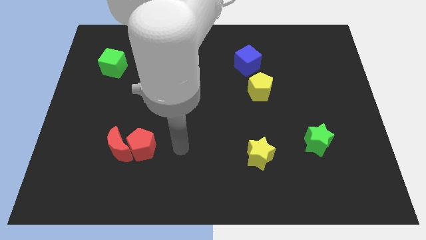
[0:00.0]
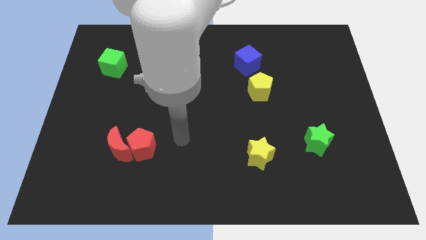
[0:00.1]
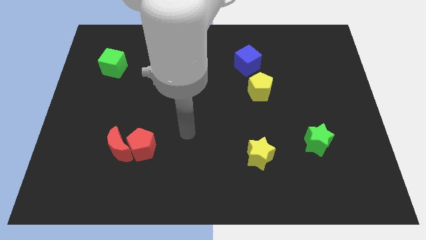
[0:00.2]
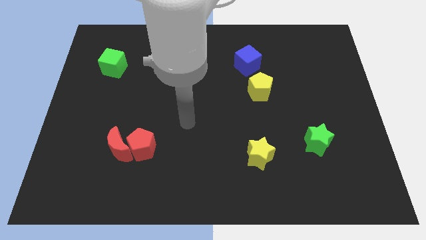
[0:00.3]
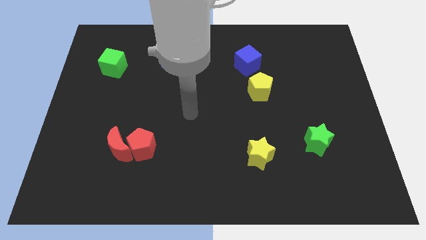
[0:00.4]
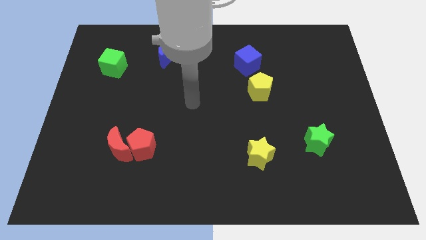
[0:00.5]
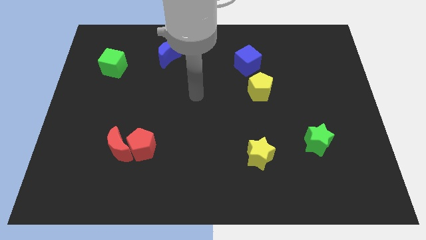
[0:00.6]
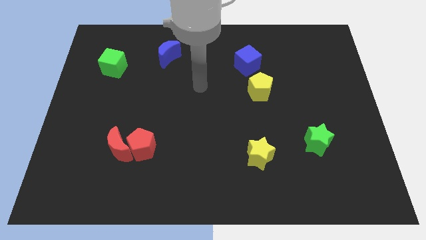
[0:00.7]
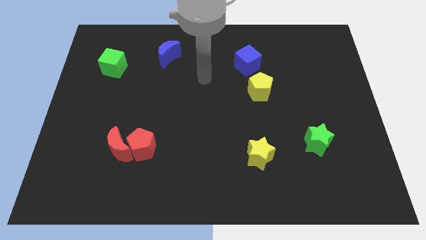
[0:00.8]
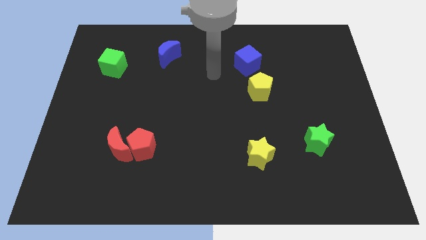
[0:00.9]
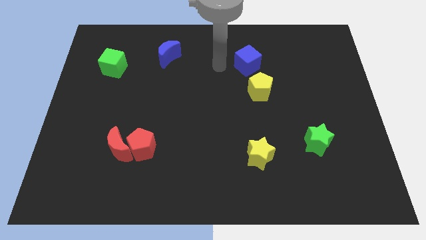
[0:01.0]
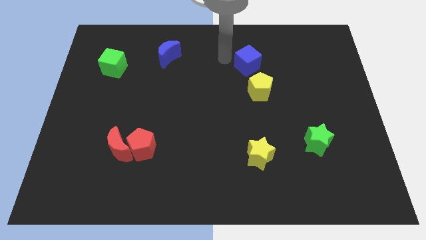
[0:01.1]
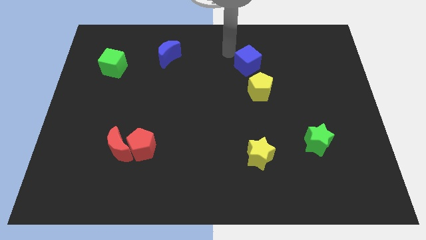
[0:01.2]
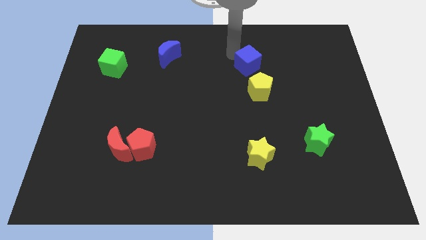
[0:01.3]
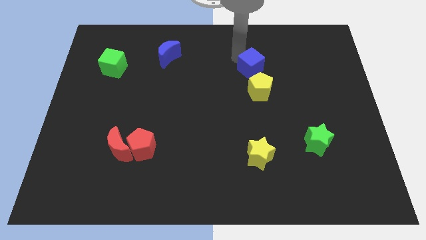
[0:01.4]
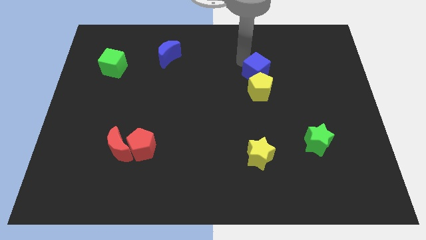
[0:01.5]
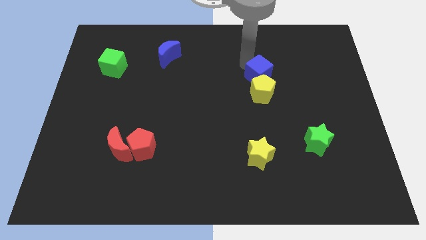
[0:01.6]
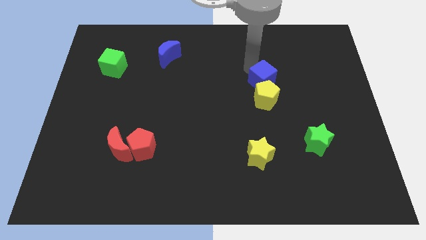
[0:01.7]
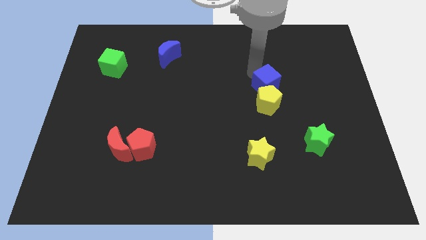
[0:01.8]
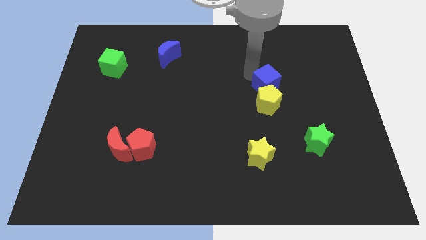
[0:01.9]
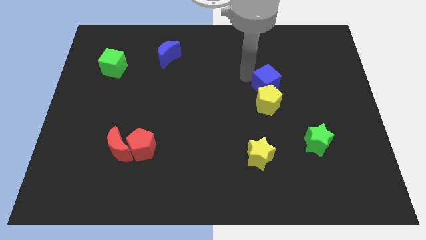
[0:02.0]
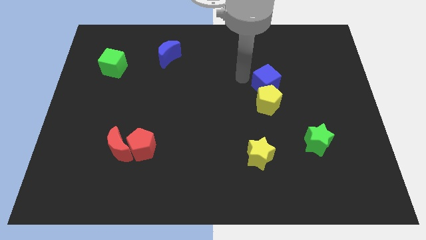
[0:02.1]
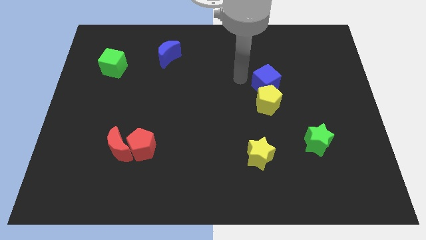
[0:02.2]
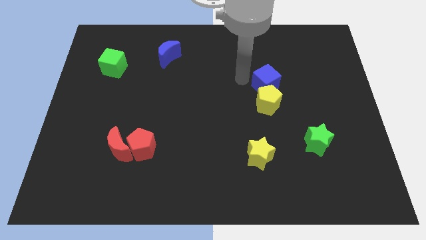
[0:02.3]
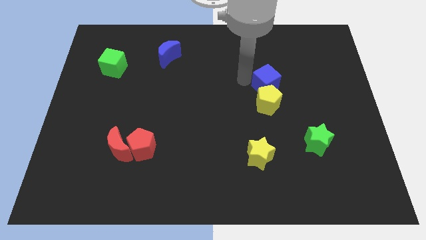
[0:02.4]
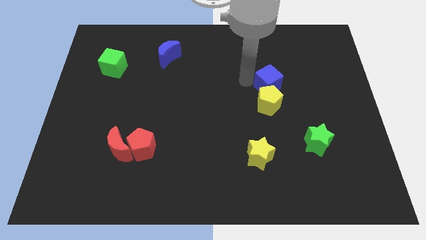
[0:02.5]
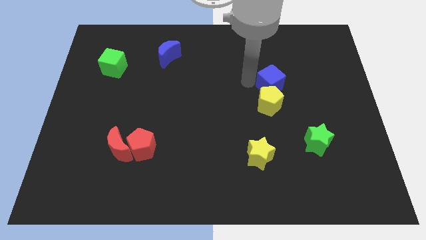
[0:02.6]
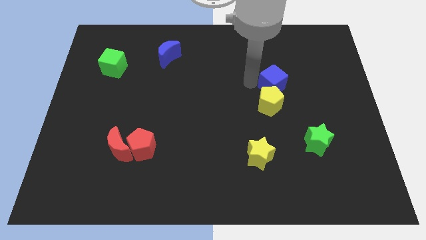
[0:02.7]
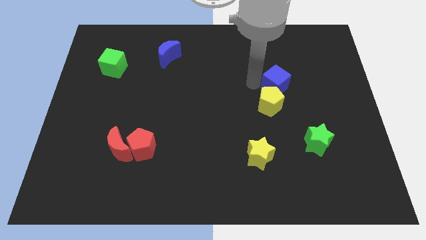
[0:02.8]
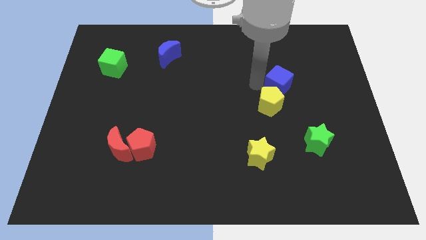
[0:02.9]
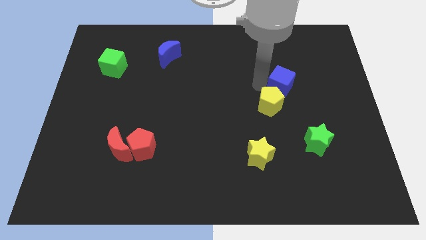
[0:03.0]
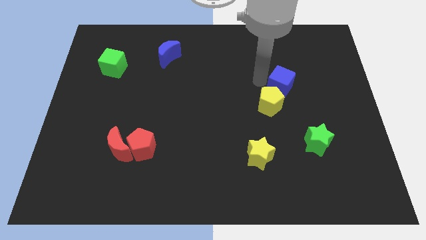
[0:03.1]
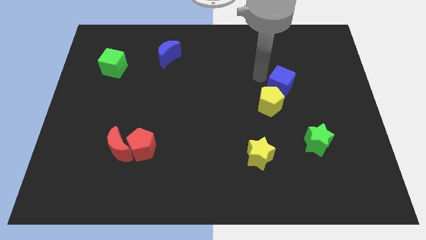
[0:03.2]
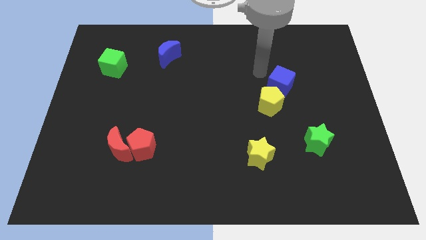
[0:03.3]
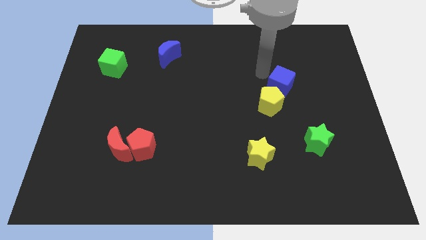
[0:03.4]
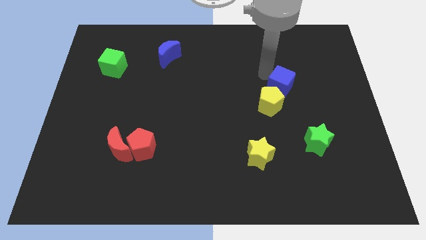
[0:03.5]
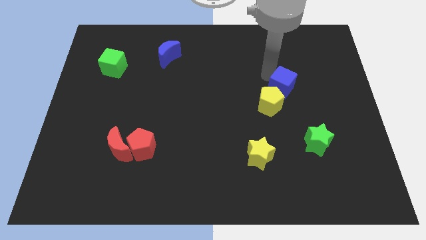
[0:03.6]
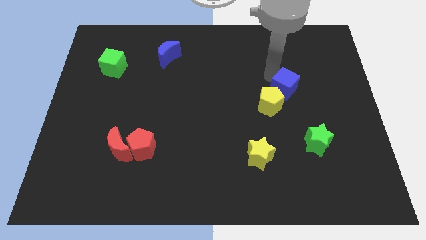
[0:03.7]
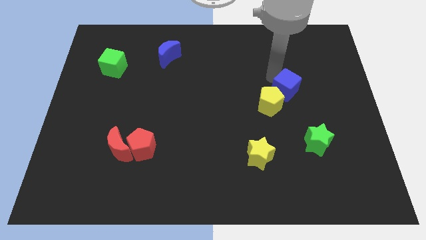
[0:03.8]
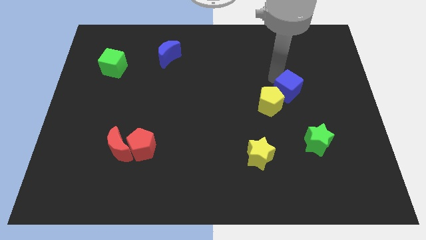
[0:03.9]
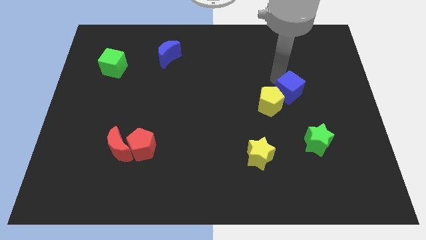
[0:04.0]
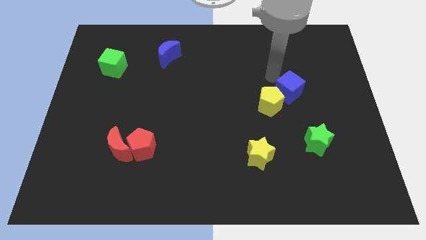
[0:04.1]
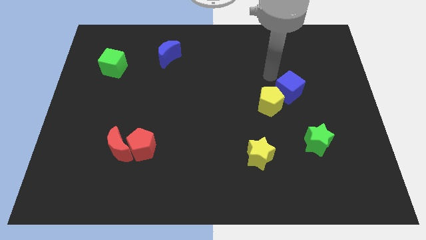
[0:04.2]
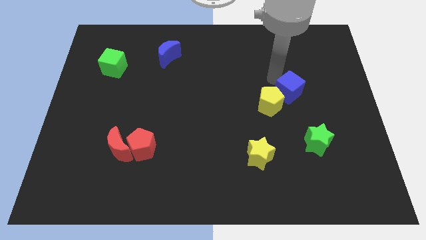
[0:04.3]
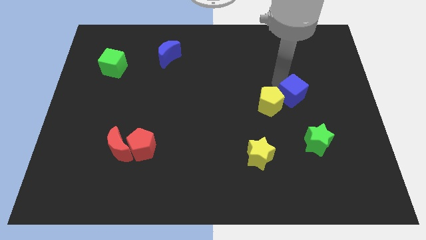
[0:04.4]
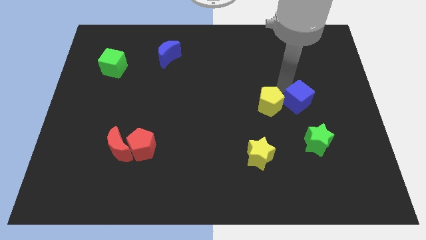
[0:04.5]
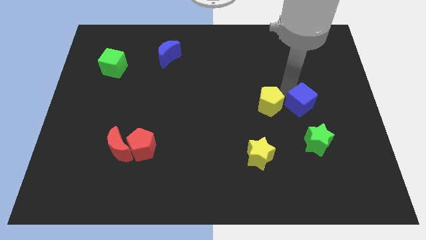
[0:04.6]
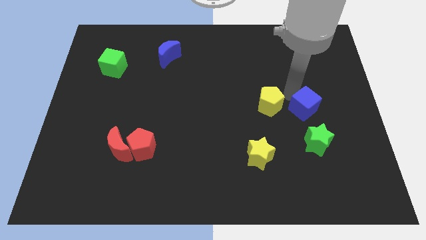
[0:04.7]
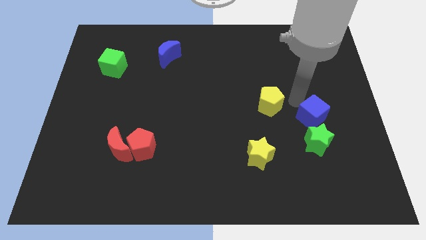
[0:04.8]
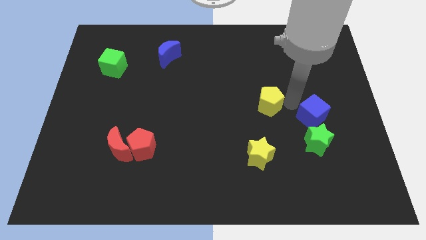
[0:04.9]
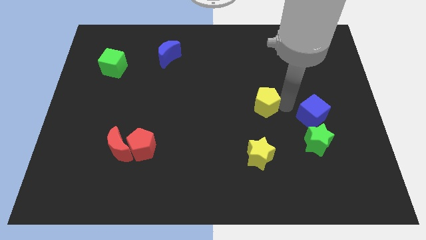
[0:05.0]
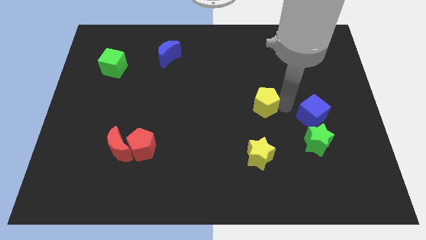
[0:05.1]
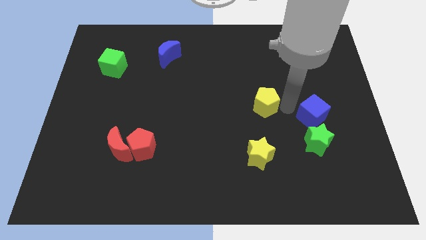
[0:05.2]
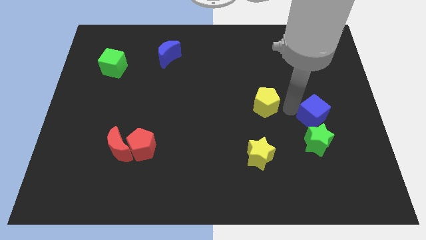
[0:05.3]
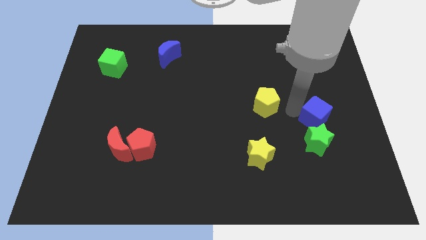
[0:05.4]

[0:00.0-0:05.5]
push the blue cube to the top right side of the green star

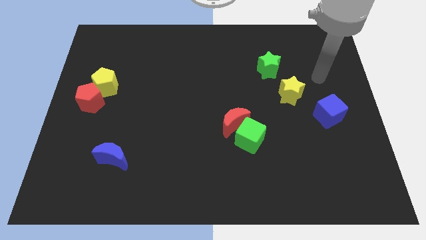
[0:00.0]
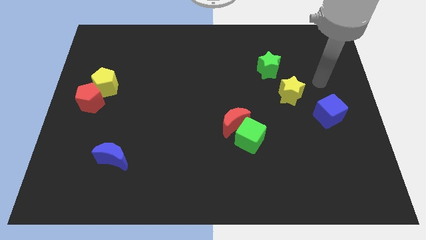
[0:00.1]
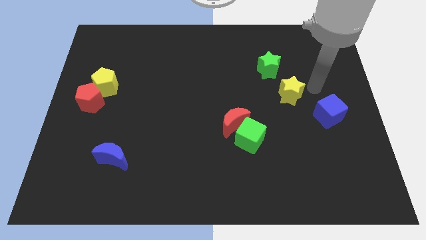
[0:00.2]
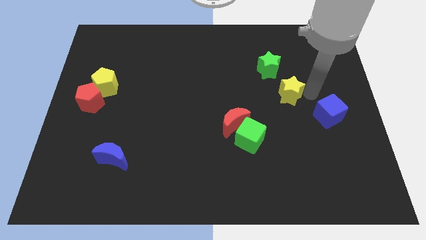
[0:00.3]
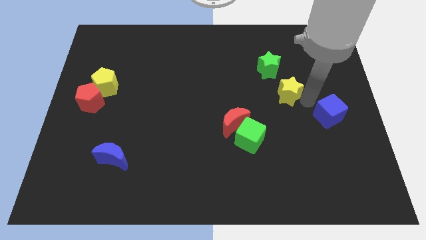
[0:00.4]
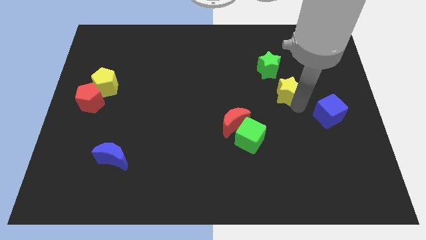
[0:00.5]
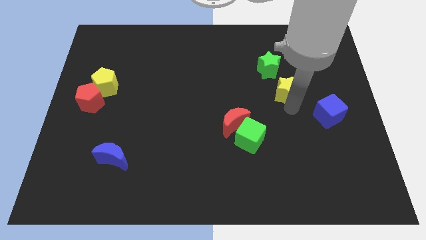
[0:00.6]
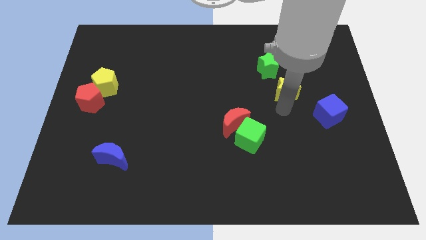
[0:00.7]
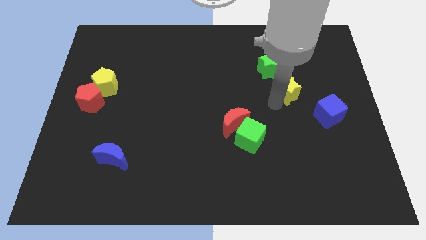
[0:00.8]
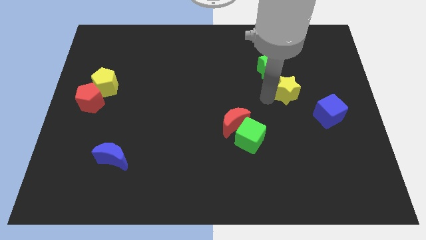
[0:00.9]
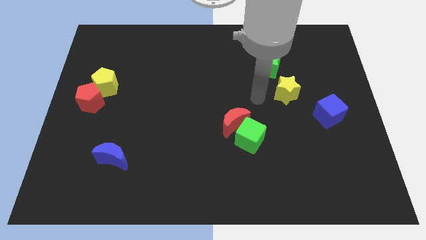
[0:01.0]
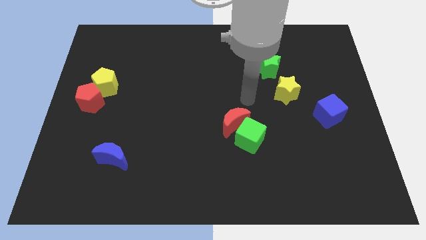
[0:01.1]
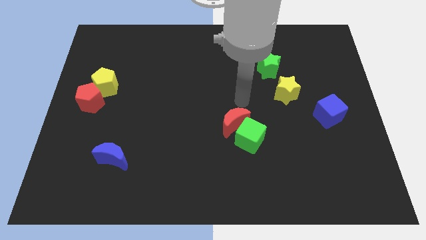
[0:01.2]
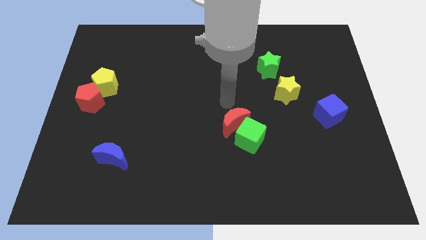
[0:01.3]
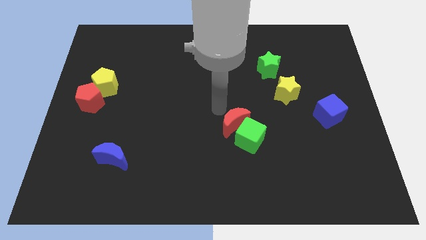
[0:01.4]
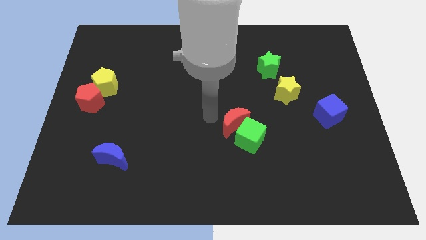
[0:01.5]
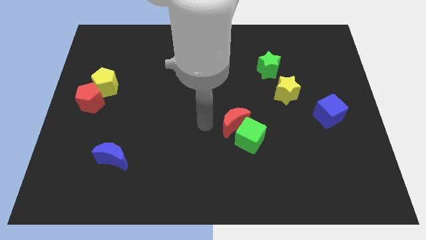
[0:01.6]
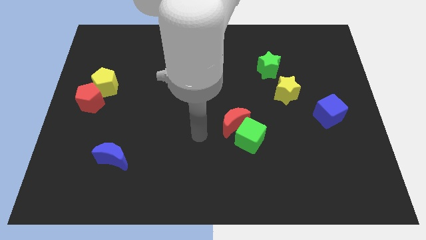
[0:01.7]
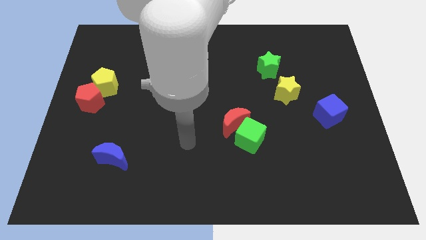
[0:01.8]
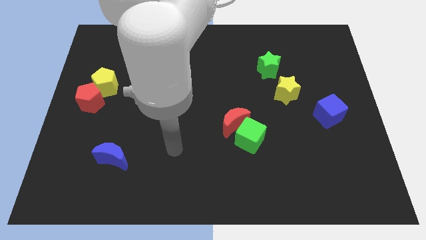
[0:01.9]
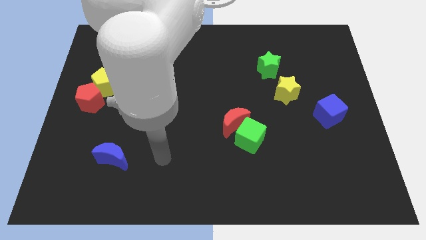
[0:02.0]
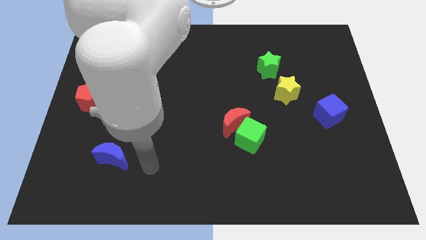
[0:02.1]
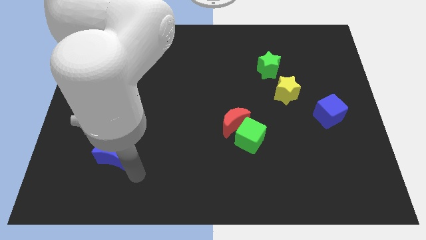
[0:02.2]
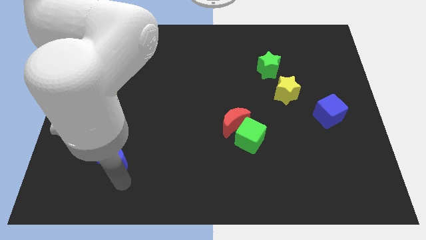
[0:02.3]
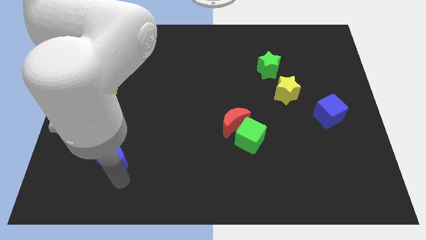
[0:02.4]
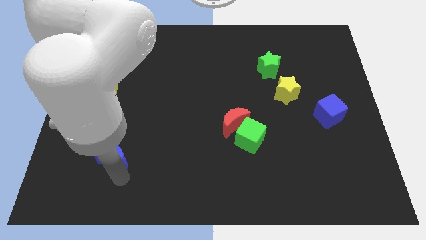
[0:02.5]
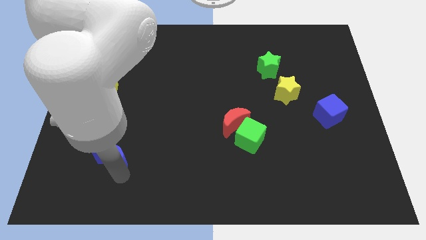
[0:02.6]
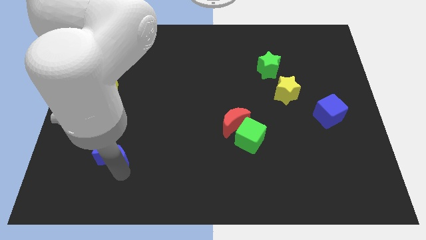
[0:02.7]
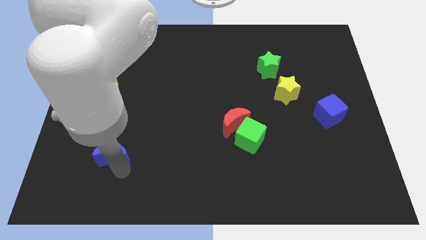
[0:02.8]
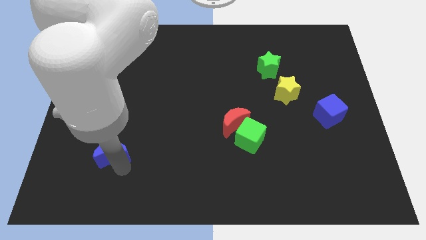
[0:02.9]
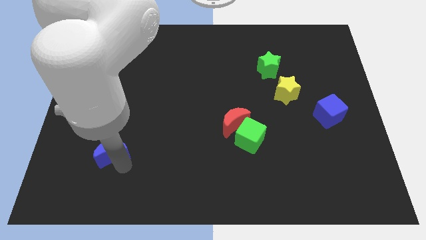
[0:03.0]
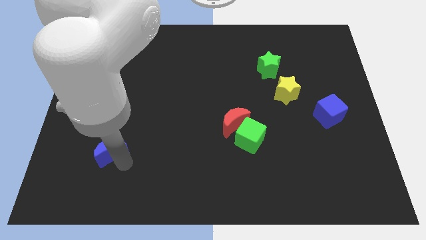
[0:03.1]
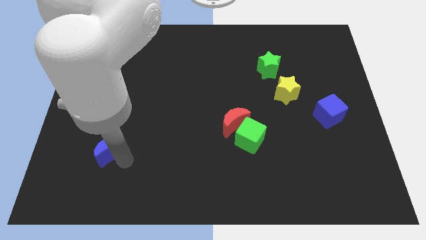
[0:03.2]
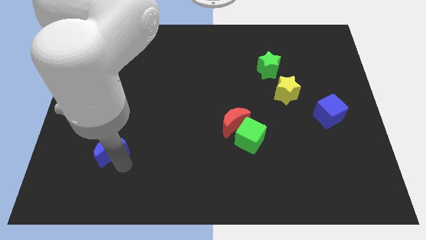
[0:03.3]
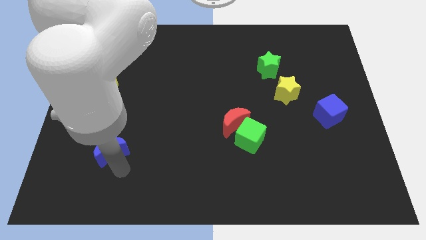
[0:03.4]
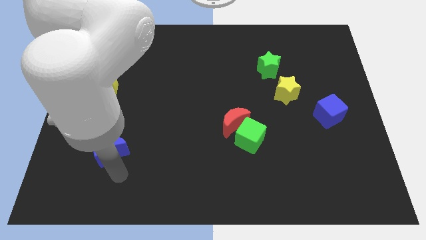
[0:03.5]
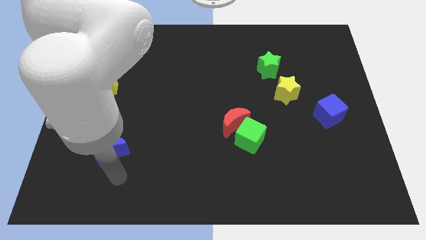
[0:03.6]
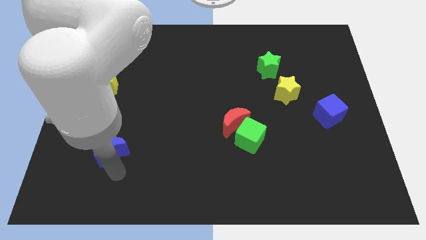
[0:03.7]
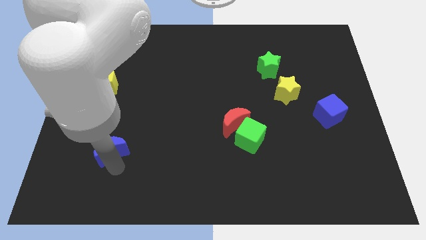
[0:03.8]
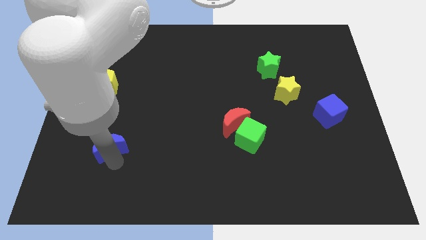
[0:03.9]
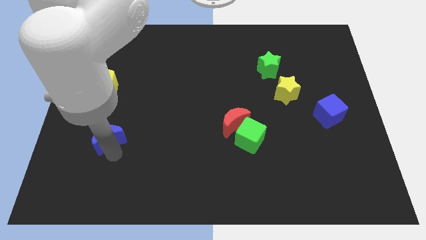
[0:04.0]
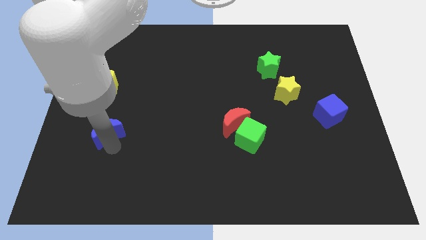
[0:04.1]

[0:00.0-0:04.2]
move the blue moon to the bottom side of the yellow pentagon
